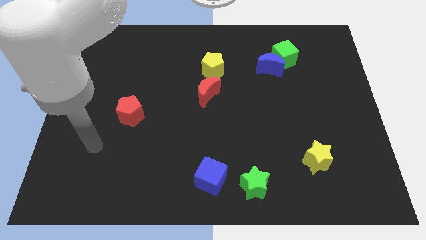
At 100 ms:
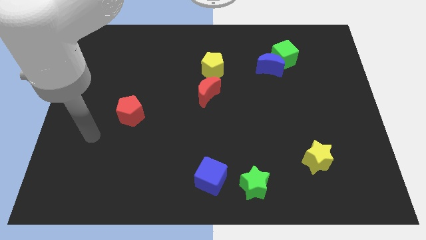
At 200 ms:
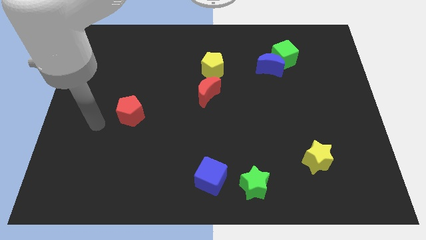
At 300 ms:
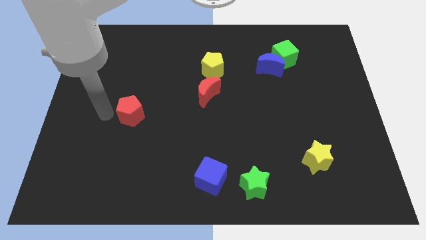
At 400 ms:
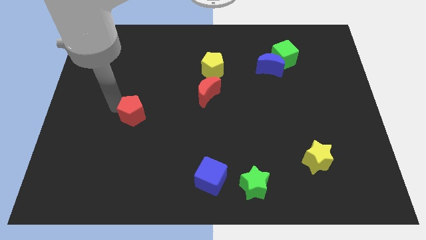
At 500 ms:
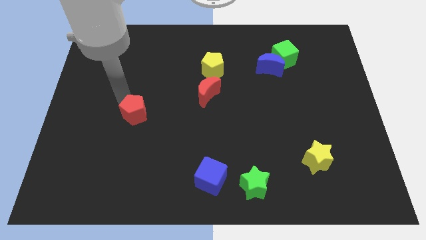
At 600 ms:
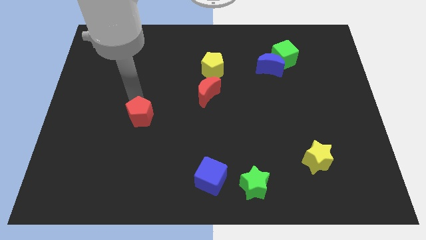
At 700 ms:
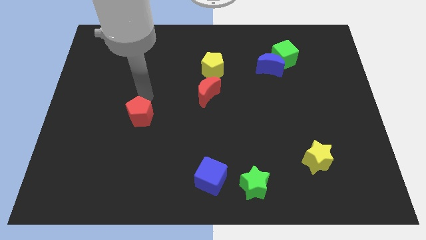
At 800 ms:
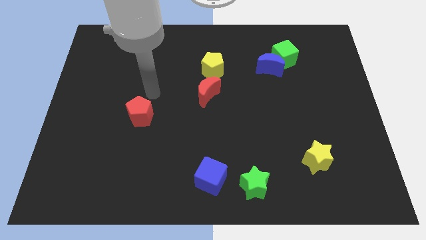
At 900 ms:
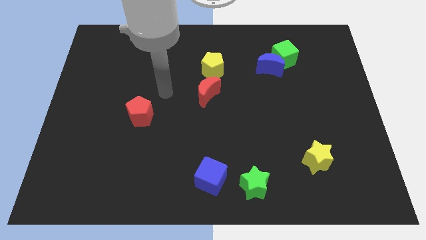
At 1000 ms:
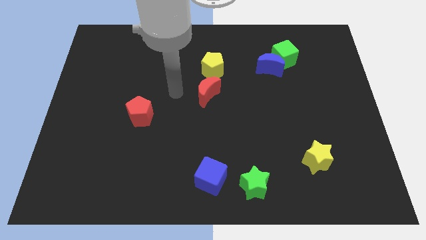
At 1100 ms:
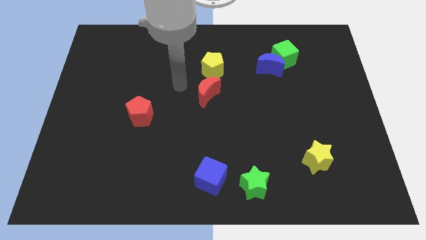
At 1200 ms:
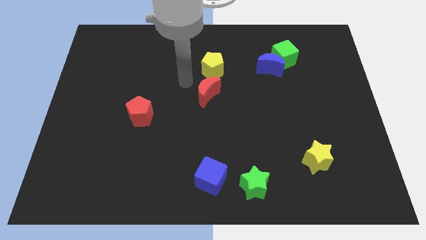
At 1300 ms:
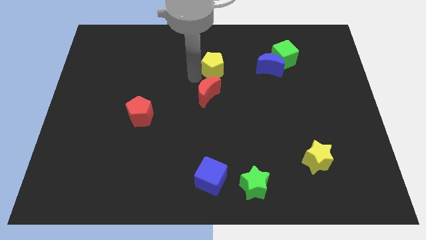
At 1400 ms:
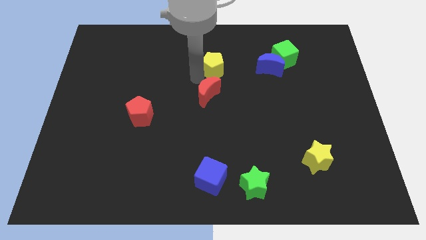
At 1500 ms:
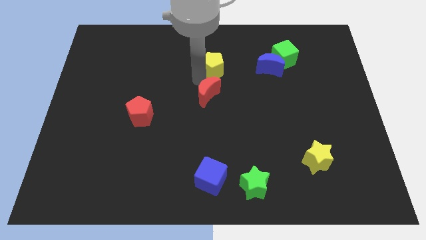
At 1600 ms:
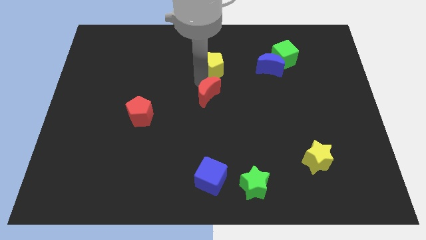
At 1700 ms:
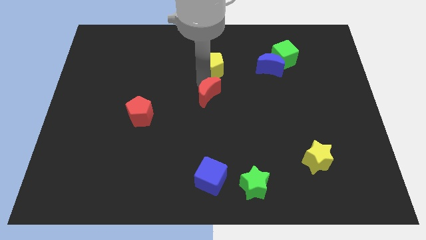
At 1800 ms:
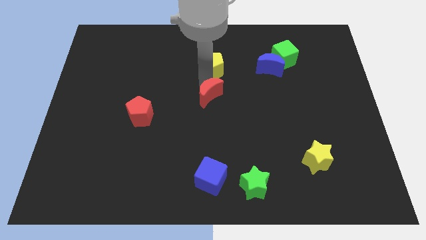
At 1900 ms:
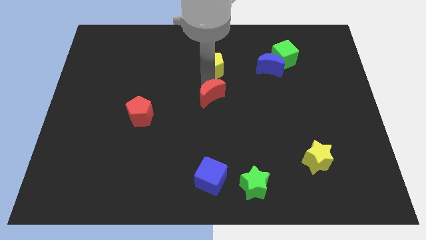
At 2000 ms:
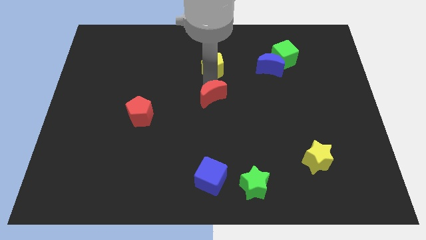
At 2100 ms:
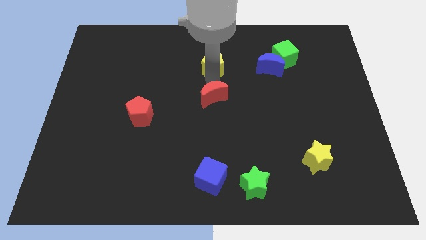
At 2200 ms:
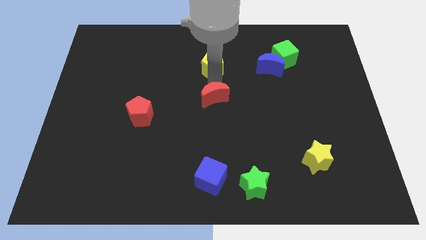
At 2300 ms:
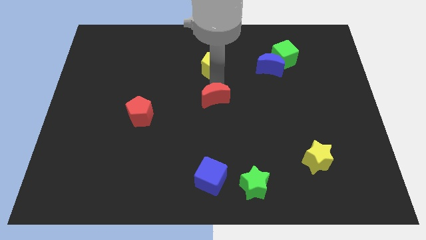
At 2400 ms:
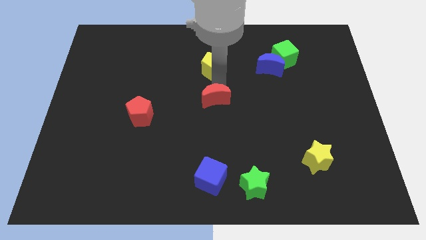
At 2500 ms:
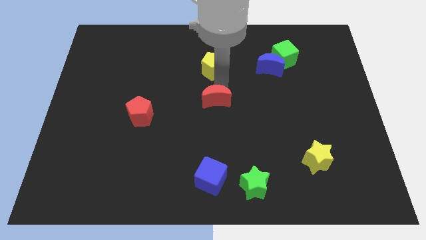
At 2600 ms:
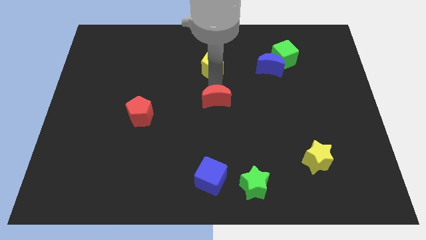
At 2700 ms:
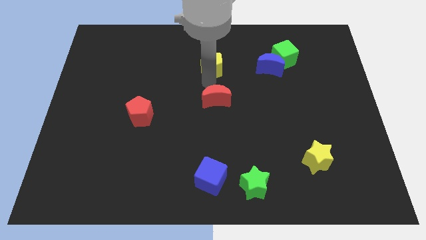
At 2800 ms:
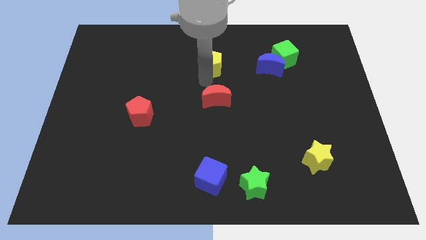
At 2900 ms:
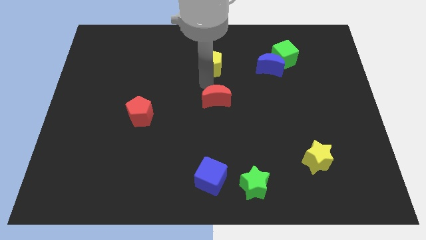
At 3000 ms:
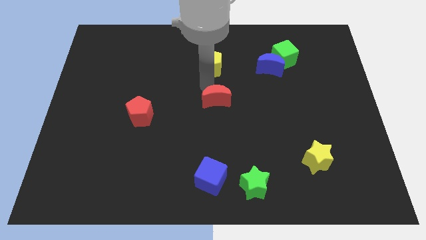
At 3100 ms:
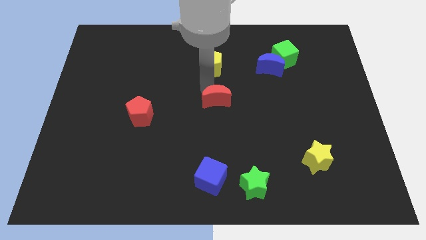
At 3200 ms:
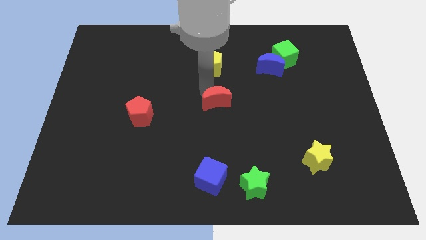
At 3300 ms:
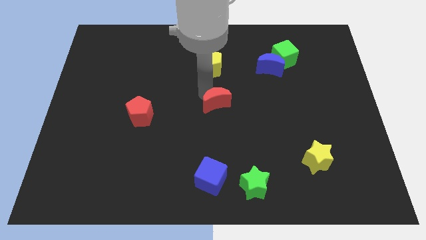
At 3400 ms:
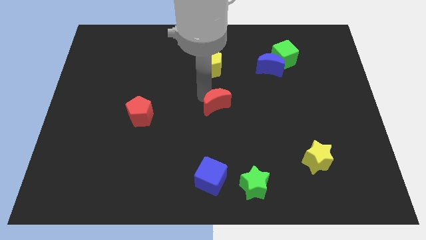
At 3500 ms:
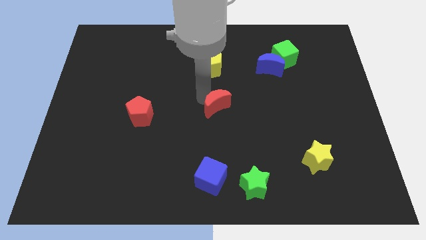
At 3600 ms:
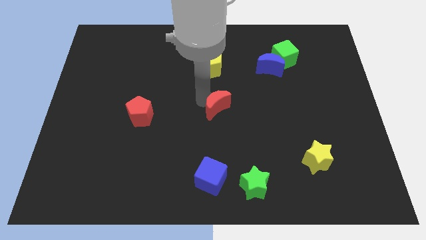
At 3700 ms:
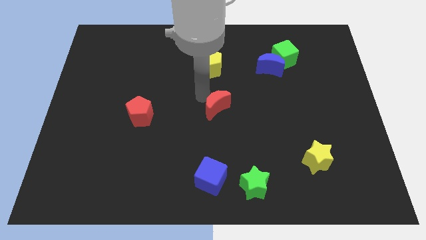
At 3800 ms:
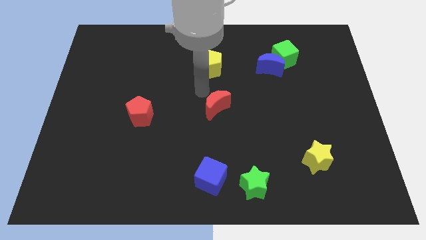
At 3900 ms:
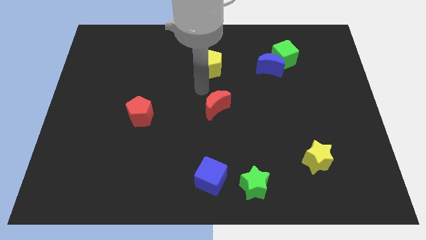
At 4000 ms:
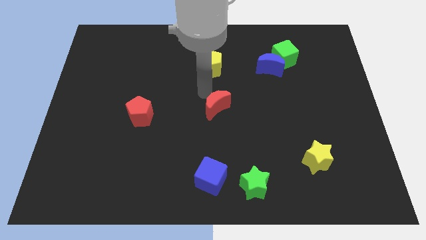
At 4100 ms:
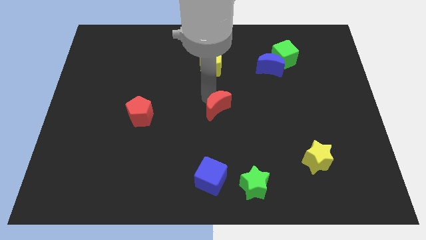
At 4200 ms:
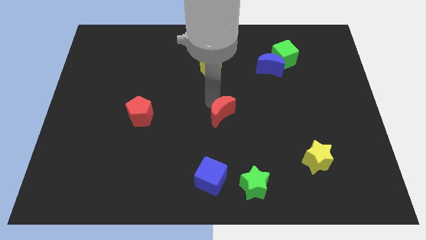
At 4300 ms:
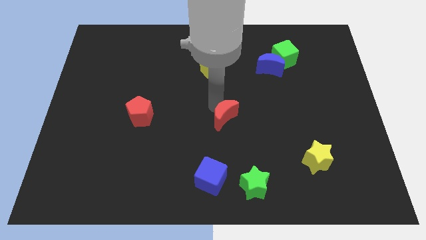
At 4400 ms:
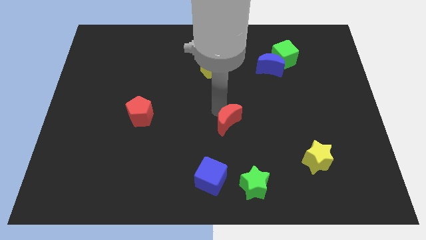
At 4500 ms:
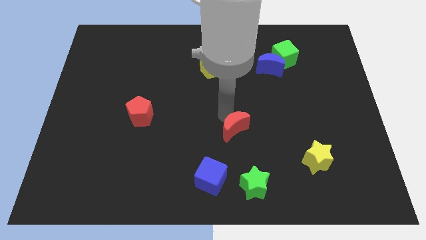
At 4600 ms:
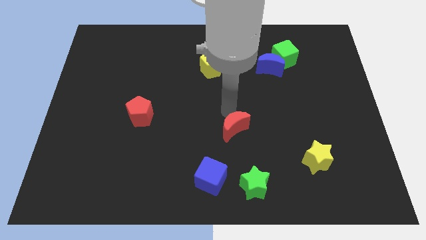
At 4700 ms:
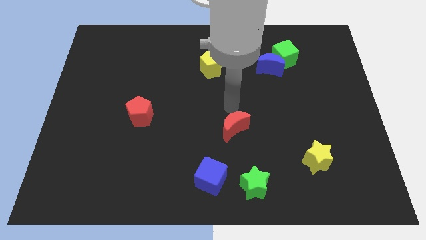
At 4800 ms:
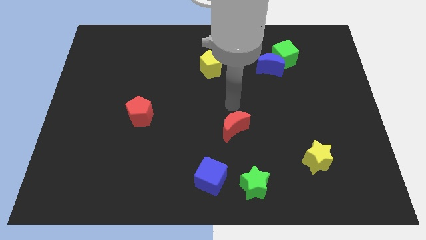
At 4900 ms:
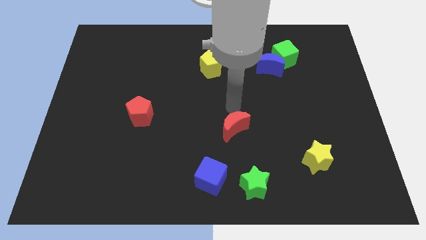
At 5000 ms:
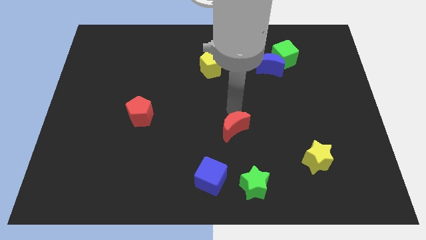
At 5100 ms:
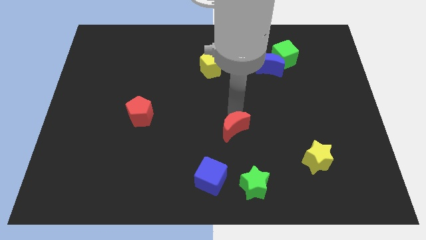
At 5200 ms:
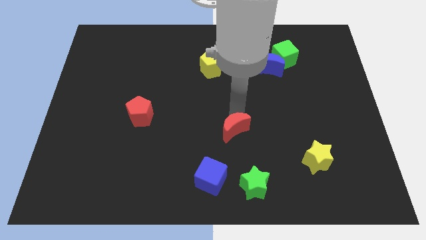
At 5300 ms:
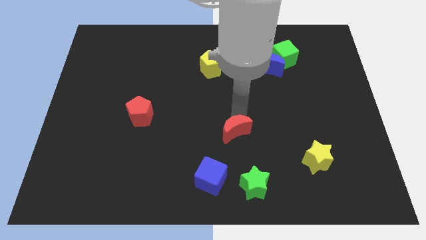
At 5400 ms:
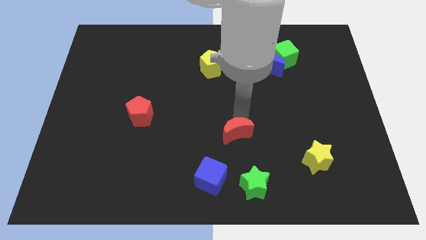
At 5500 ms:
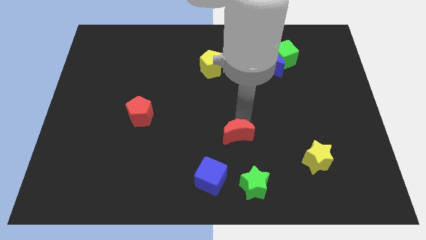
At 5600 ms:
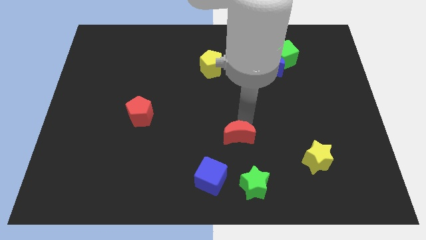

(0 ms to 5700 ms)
push the red moon diagonally up and to the right of the blue cube

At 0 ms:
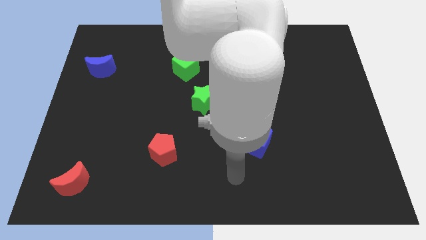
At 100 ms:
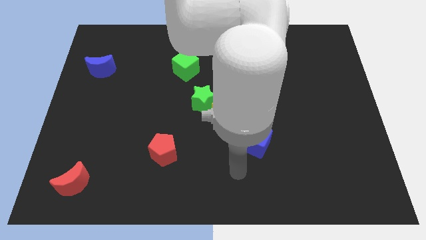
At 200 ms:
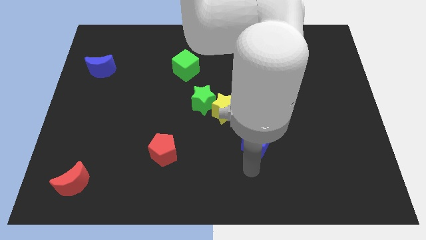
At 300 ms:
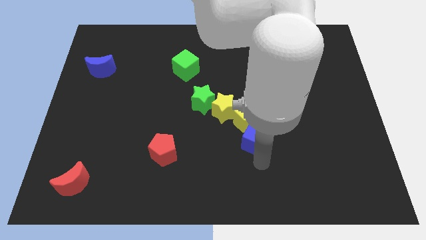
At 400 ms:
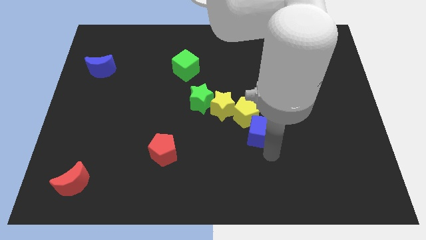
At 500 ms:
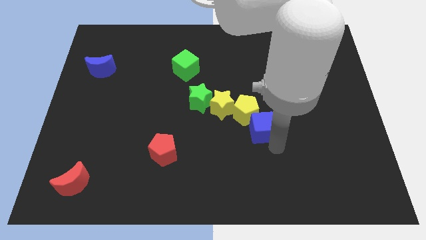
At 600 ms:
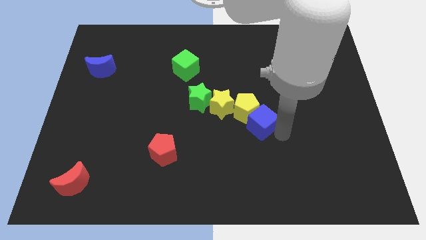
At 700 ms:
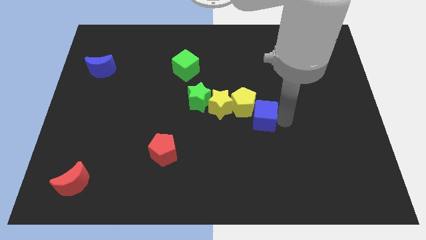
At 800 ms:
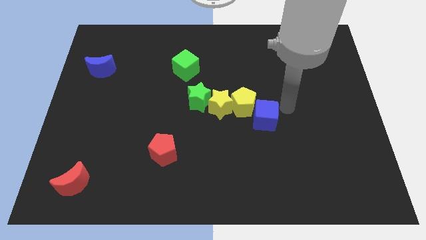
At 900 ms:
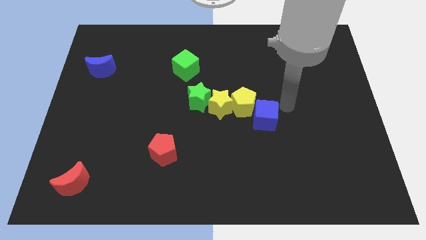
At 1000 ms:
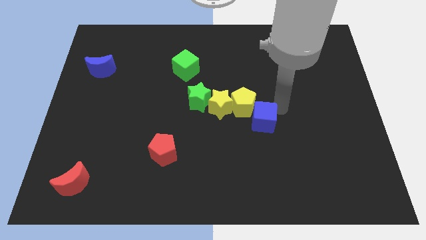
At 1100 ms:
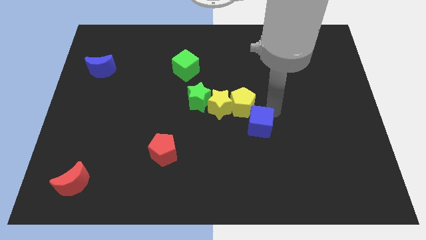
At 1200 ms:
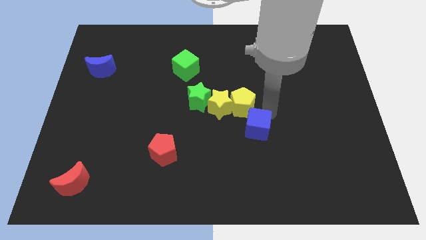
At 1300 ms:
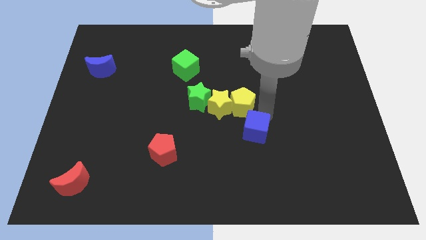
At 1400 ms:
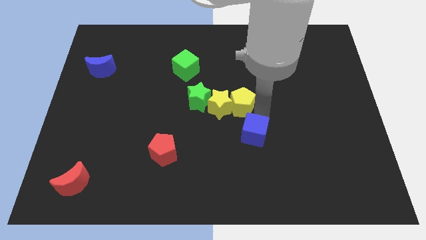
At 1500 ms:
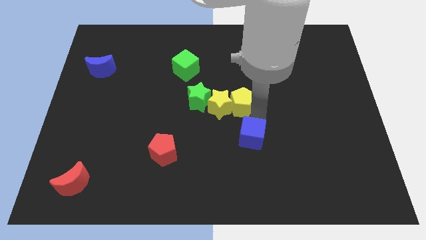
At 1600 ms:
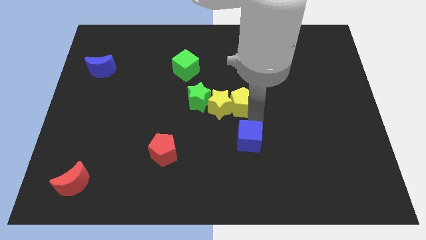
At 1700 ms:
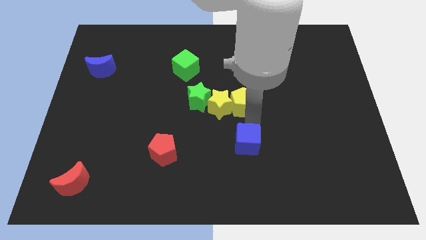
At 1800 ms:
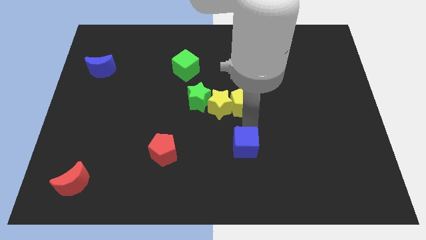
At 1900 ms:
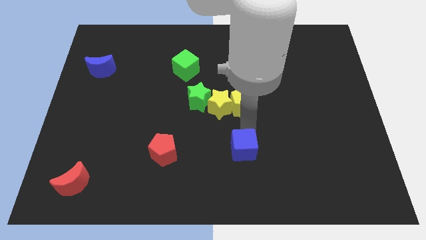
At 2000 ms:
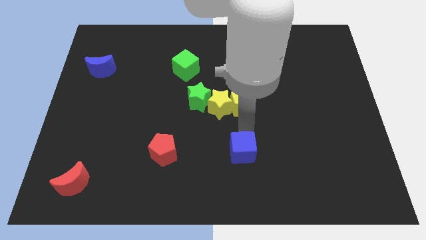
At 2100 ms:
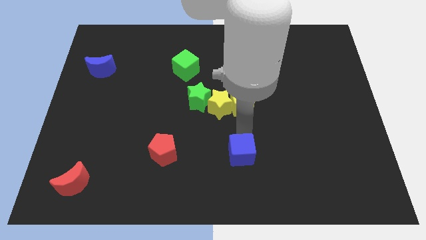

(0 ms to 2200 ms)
push the blue cube to the right side of the red pentagon

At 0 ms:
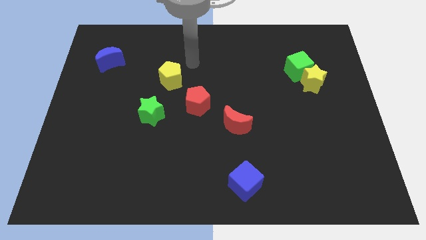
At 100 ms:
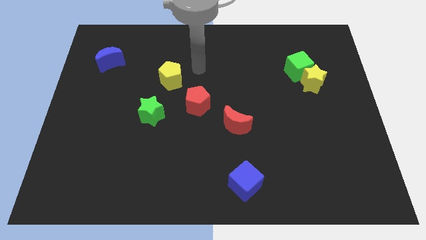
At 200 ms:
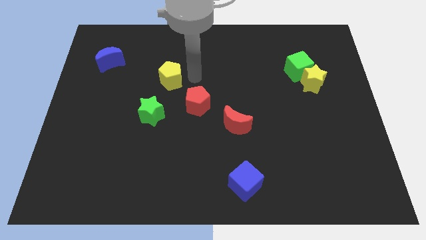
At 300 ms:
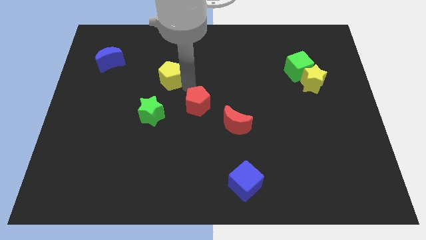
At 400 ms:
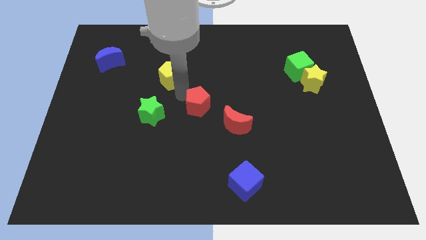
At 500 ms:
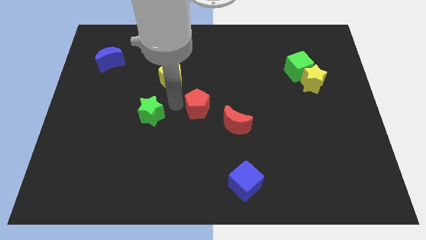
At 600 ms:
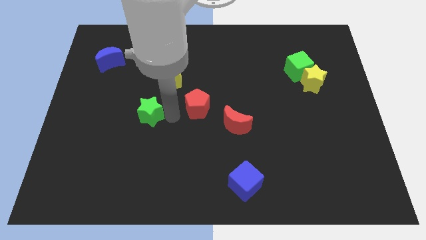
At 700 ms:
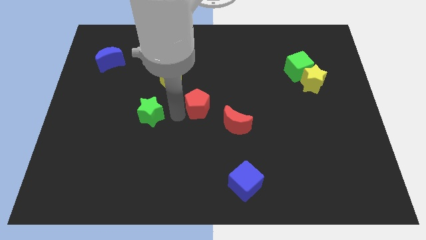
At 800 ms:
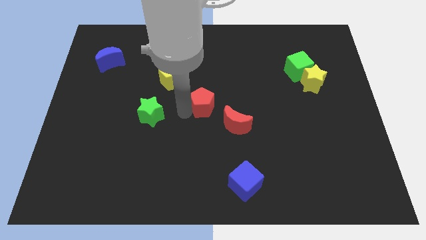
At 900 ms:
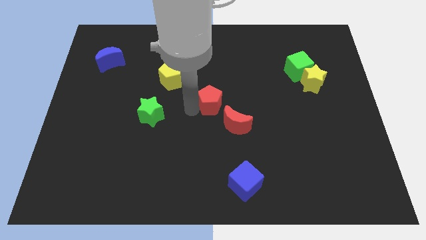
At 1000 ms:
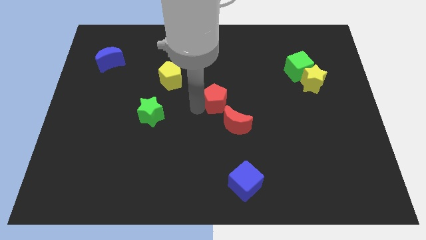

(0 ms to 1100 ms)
push the red pentagon above the red moon
